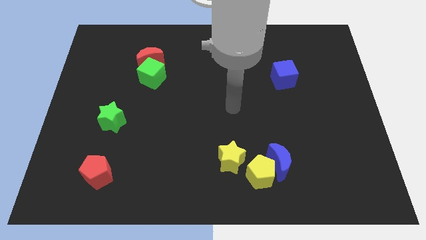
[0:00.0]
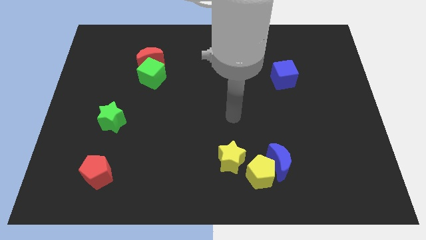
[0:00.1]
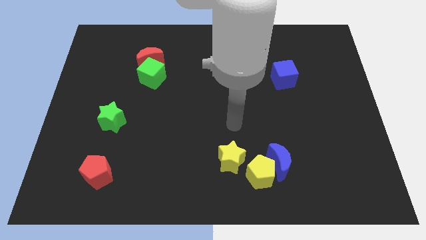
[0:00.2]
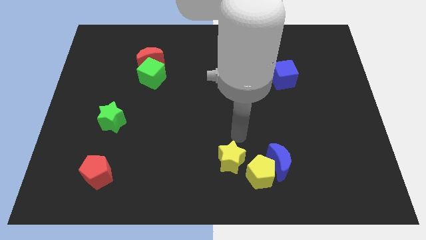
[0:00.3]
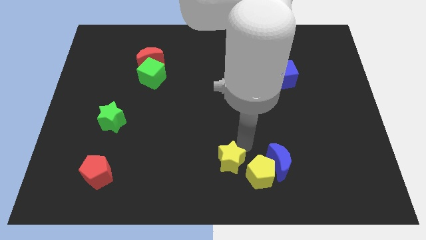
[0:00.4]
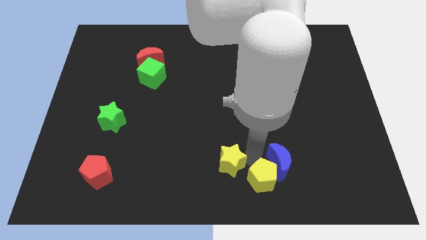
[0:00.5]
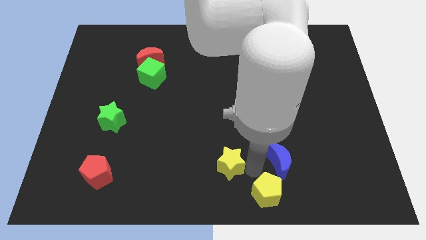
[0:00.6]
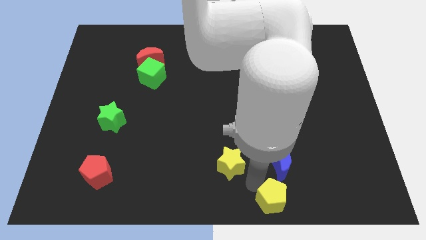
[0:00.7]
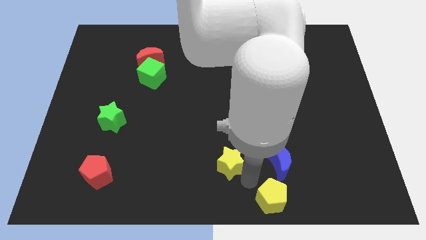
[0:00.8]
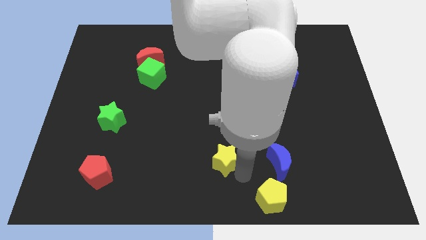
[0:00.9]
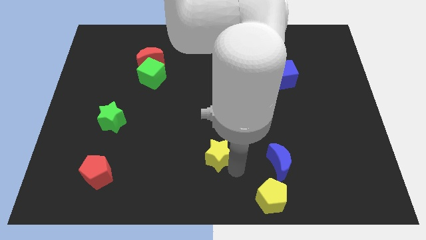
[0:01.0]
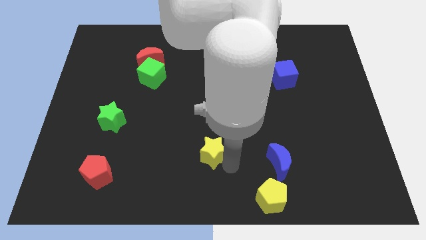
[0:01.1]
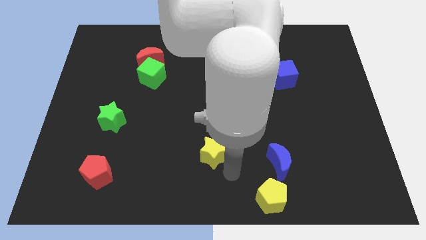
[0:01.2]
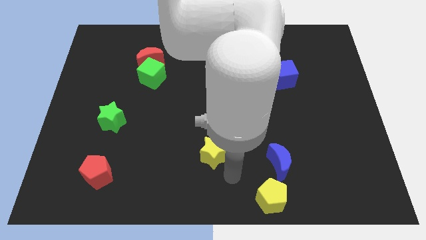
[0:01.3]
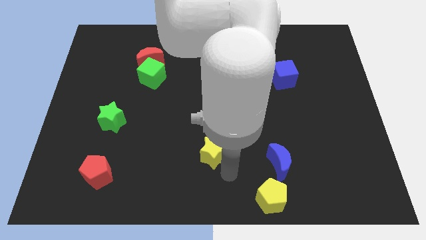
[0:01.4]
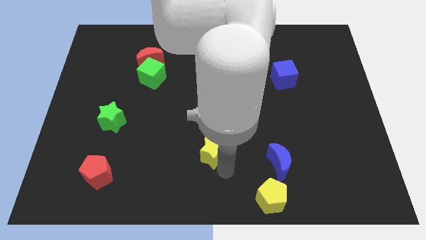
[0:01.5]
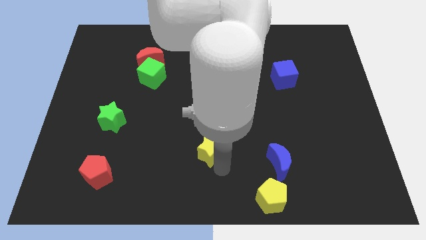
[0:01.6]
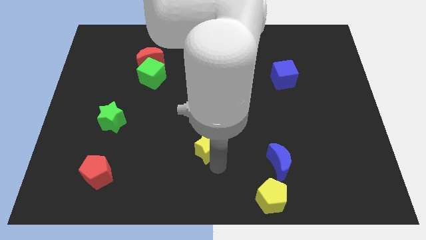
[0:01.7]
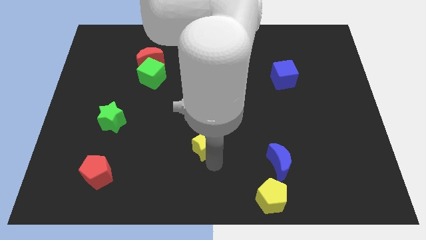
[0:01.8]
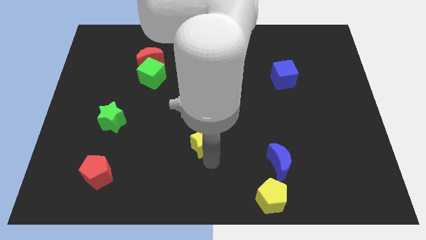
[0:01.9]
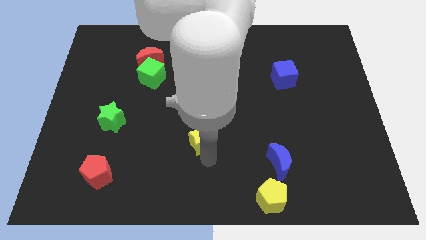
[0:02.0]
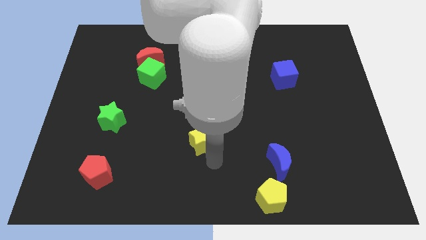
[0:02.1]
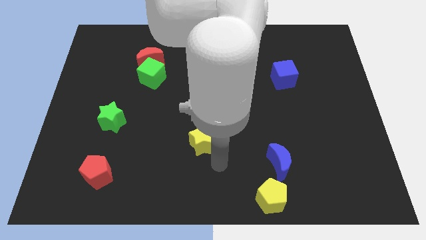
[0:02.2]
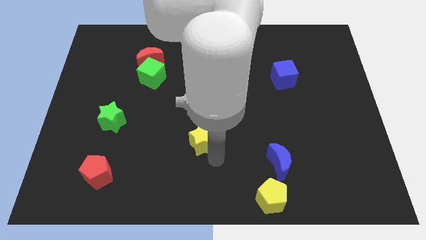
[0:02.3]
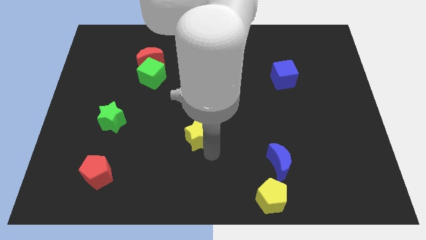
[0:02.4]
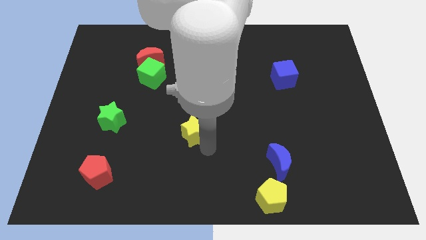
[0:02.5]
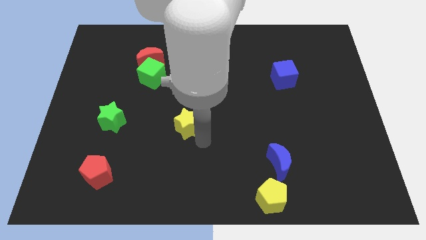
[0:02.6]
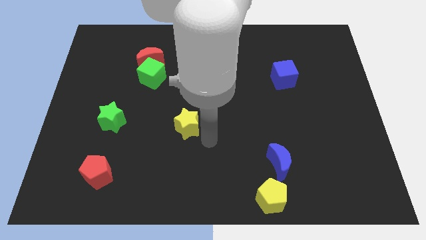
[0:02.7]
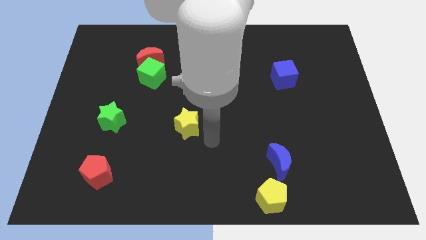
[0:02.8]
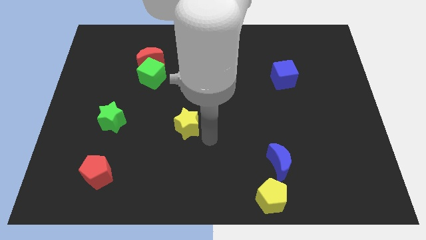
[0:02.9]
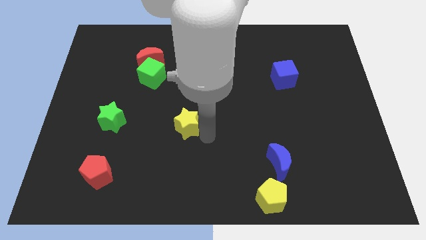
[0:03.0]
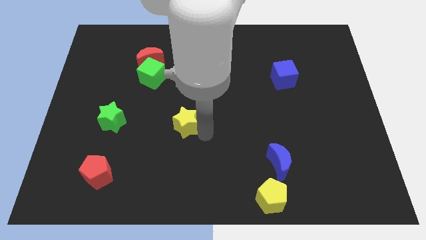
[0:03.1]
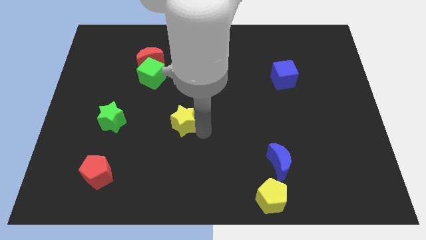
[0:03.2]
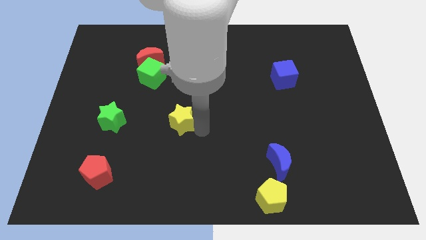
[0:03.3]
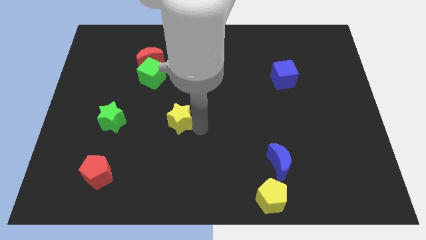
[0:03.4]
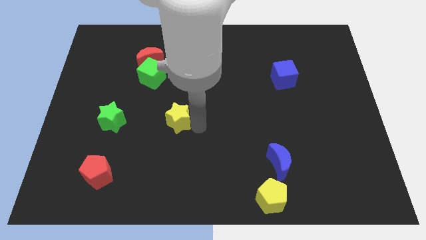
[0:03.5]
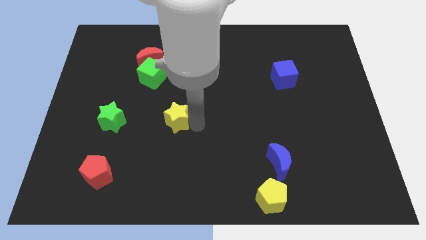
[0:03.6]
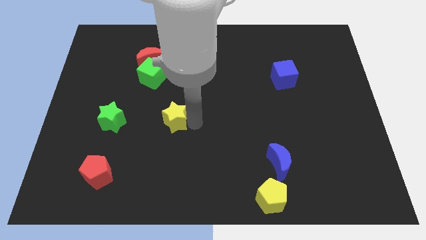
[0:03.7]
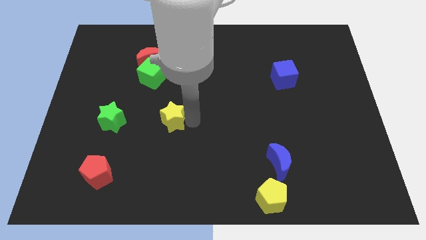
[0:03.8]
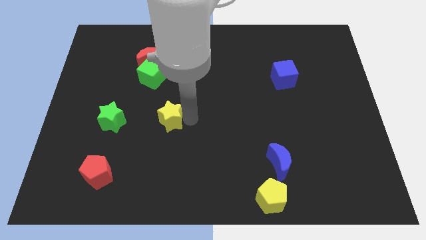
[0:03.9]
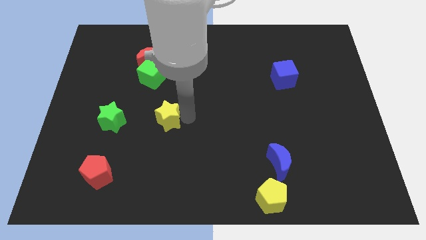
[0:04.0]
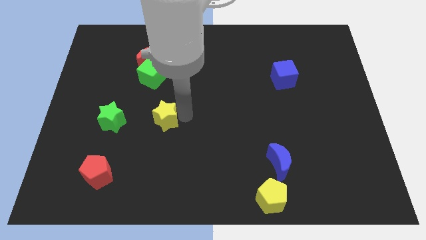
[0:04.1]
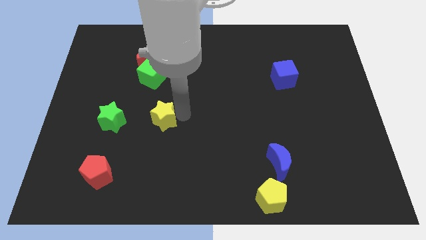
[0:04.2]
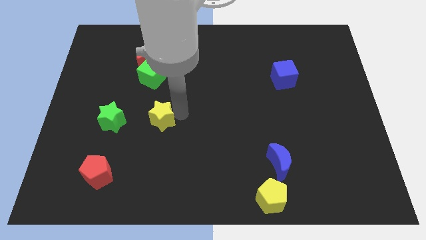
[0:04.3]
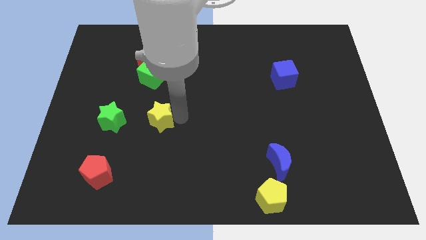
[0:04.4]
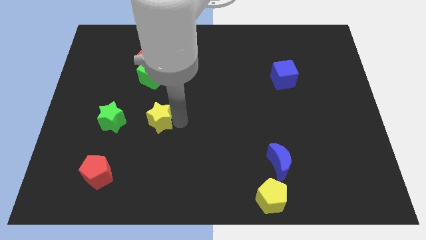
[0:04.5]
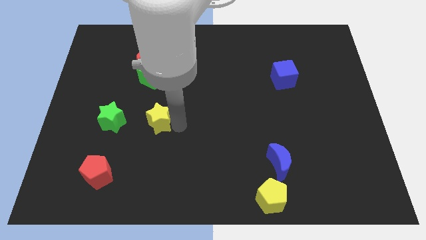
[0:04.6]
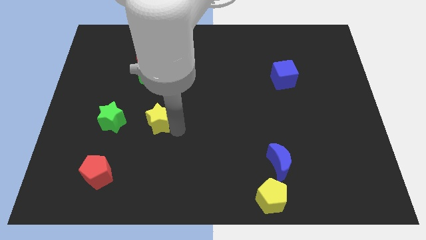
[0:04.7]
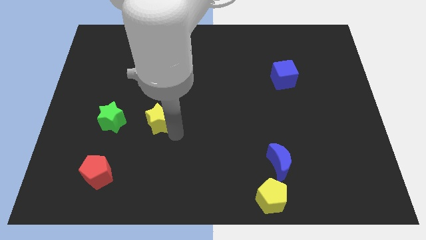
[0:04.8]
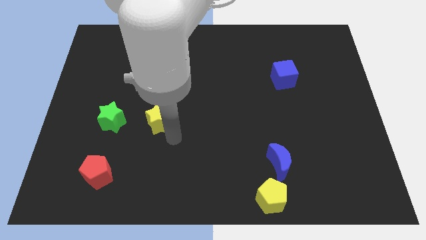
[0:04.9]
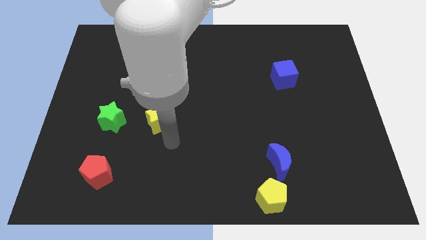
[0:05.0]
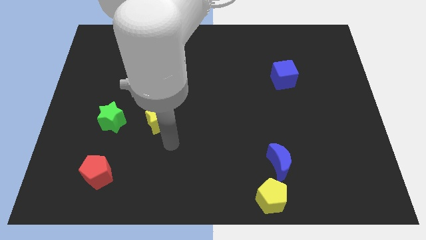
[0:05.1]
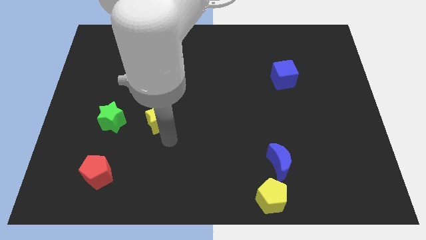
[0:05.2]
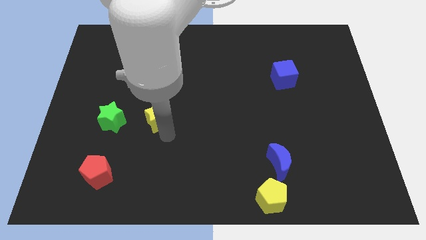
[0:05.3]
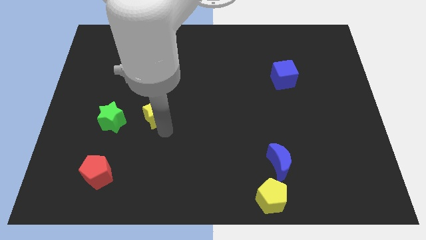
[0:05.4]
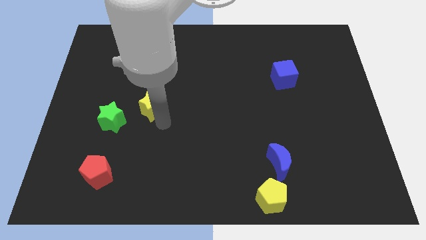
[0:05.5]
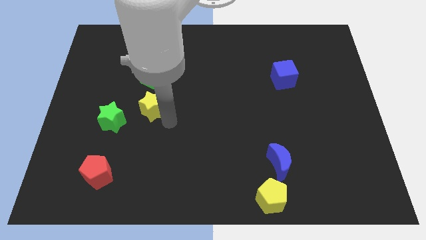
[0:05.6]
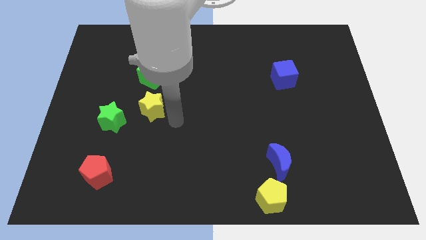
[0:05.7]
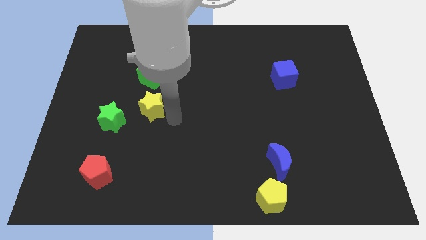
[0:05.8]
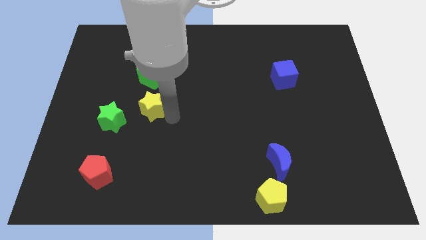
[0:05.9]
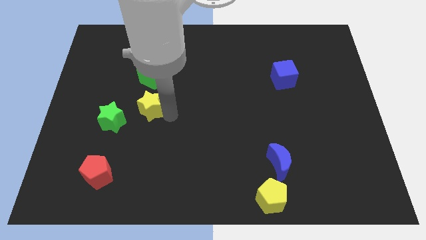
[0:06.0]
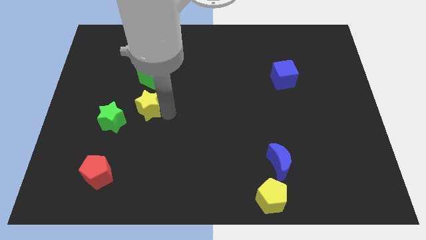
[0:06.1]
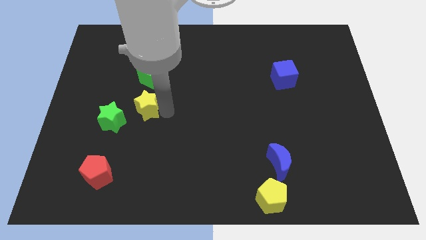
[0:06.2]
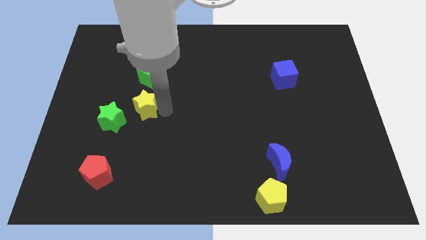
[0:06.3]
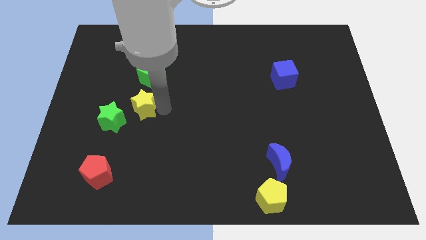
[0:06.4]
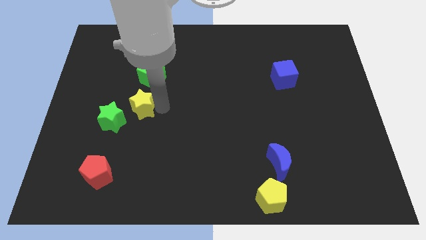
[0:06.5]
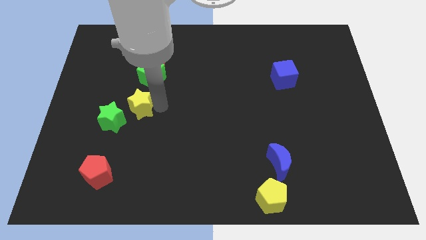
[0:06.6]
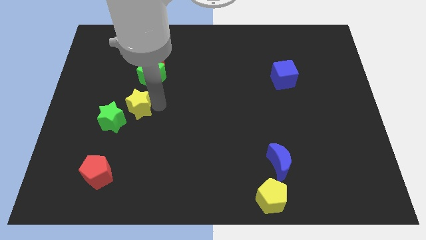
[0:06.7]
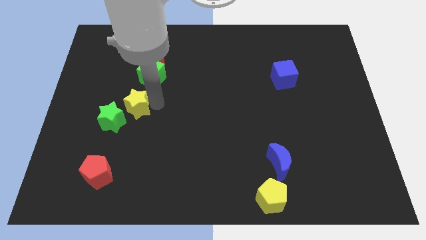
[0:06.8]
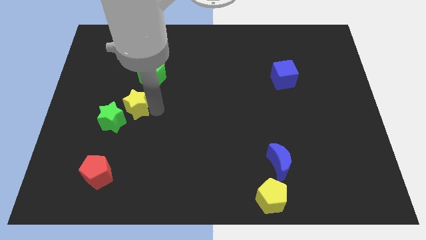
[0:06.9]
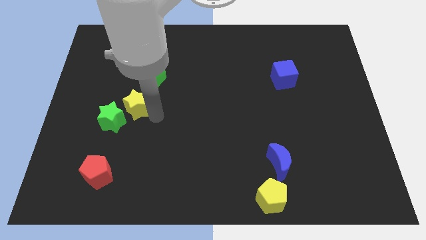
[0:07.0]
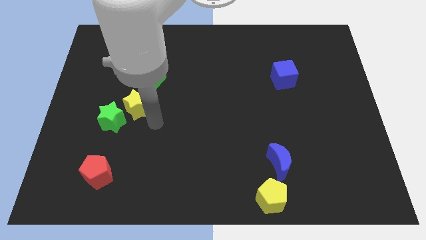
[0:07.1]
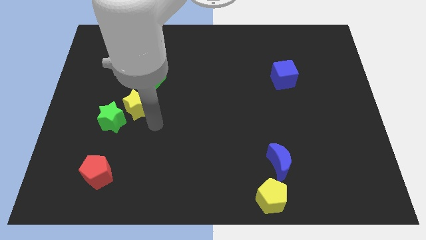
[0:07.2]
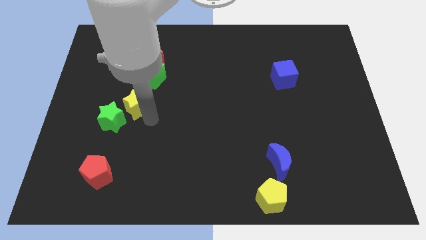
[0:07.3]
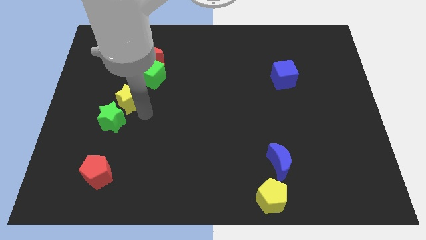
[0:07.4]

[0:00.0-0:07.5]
put the yellow star above the green star

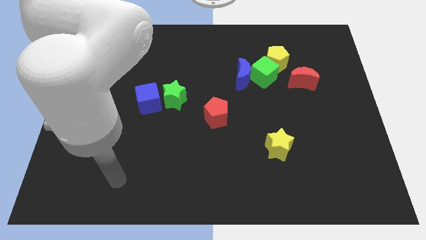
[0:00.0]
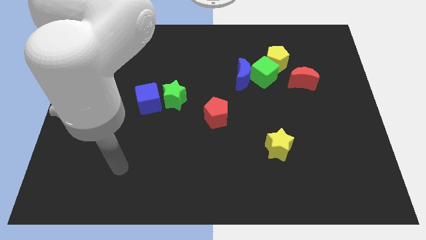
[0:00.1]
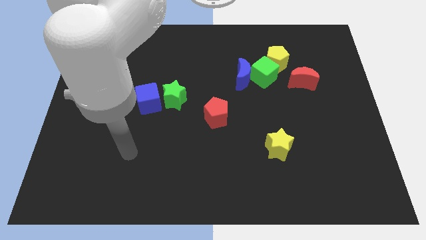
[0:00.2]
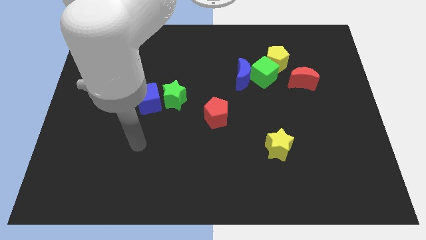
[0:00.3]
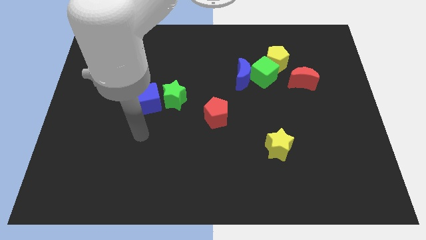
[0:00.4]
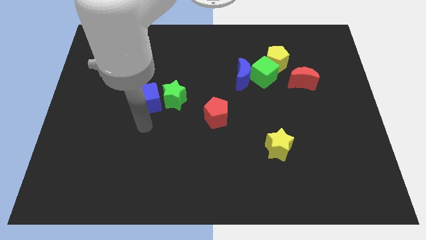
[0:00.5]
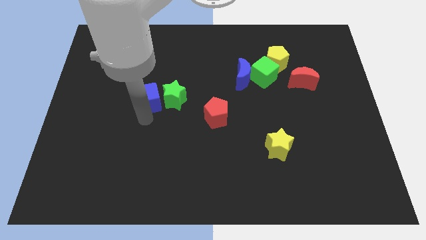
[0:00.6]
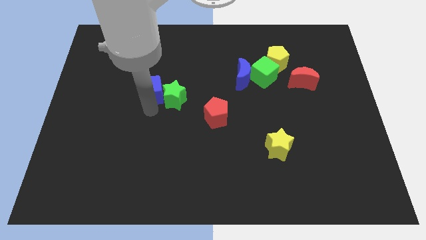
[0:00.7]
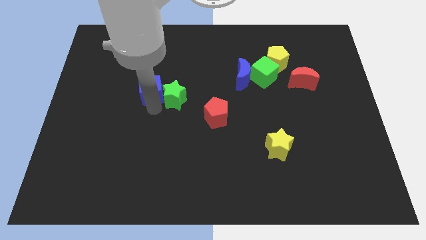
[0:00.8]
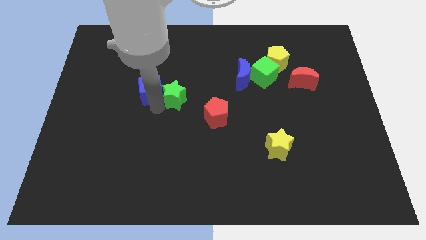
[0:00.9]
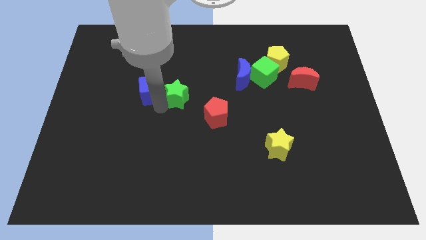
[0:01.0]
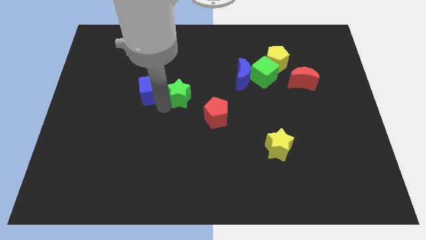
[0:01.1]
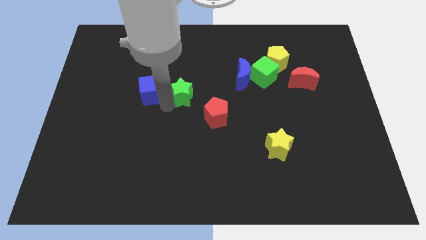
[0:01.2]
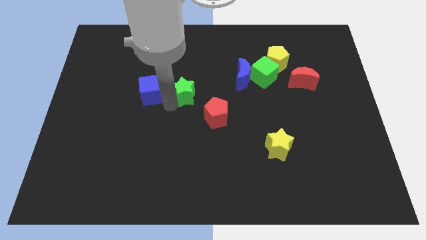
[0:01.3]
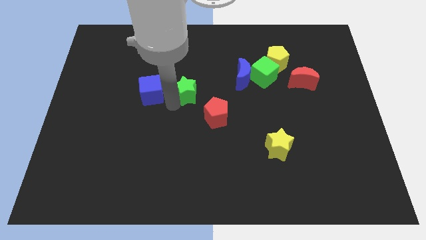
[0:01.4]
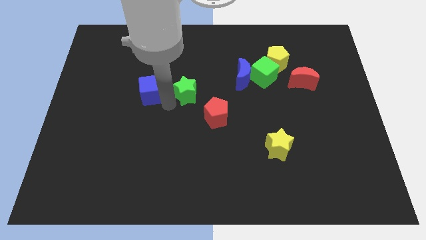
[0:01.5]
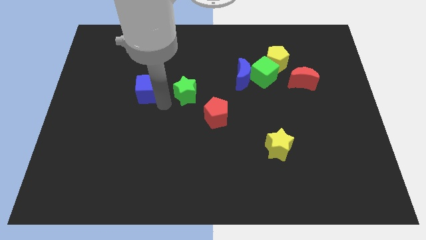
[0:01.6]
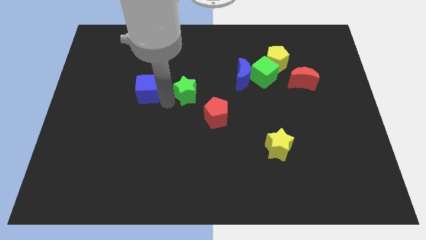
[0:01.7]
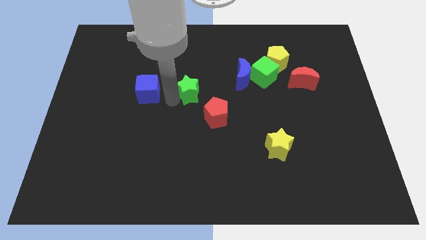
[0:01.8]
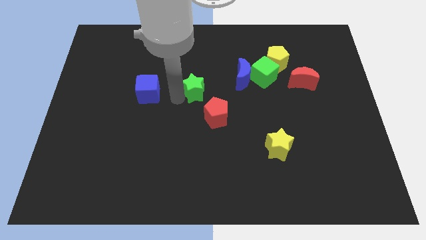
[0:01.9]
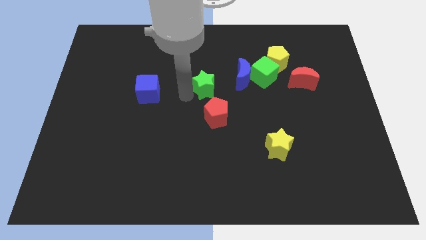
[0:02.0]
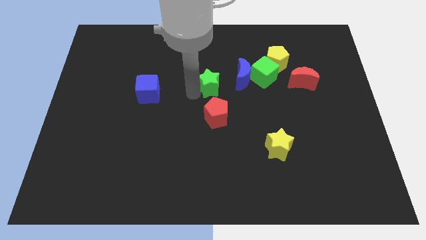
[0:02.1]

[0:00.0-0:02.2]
push the green star to the left side of the green cube
